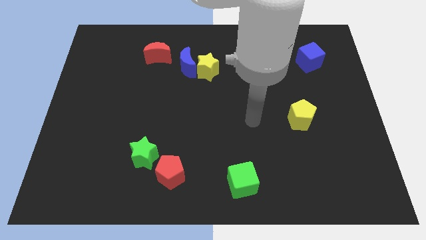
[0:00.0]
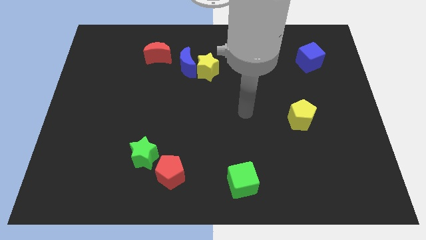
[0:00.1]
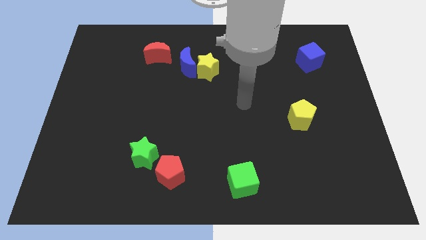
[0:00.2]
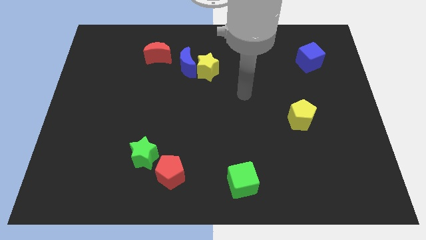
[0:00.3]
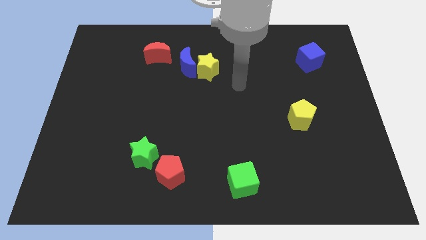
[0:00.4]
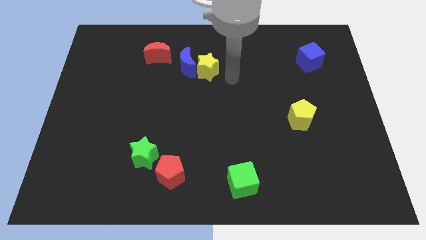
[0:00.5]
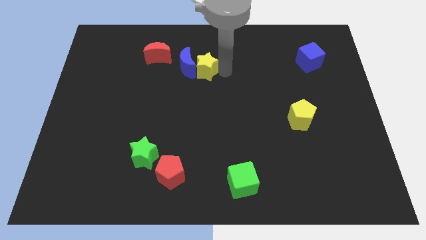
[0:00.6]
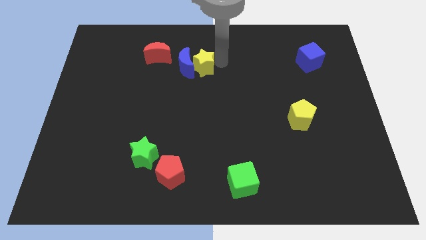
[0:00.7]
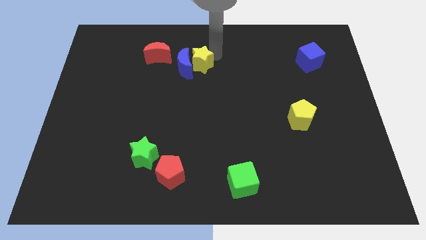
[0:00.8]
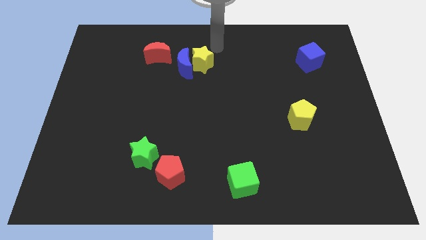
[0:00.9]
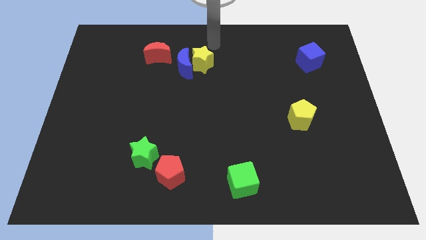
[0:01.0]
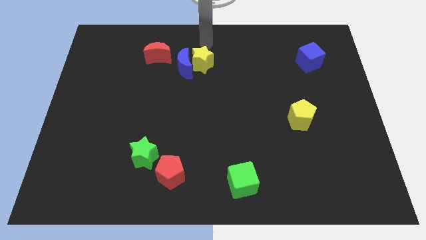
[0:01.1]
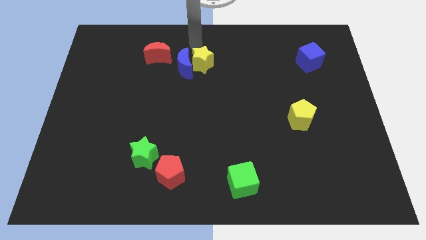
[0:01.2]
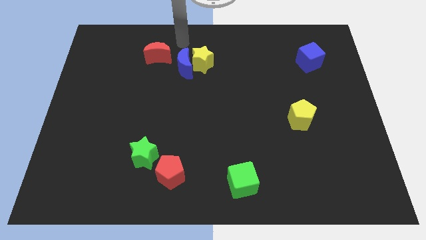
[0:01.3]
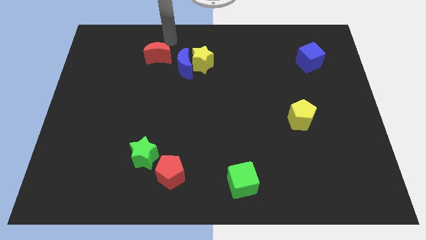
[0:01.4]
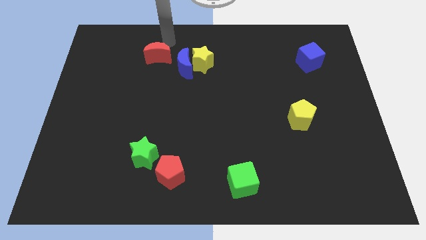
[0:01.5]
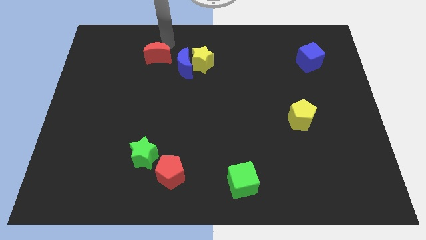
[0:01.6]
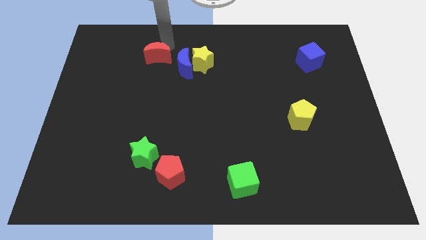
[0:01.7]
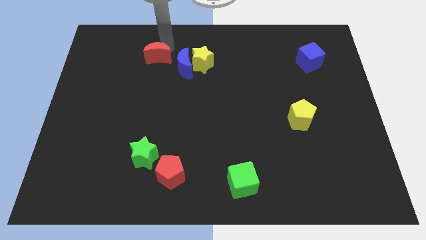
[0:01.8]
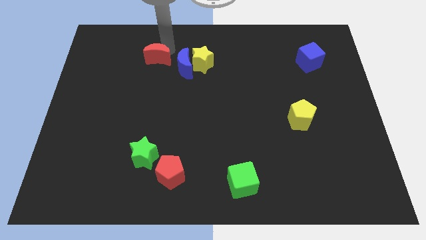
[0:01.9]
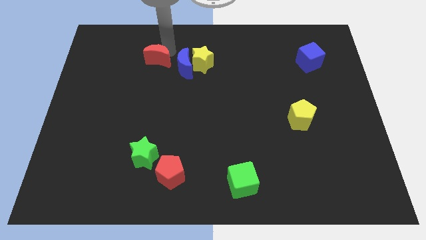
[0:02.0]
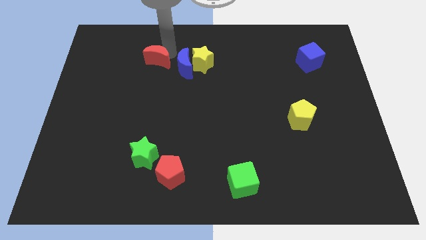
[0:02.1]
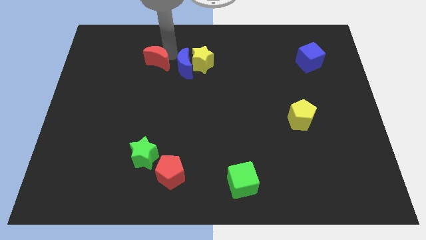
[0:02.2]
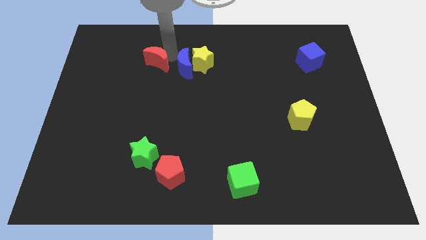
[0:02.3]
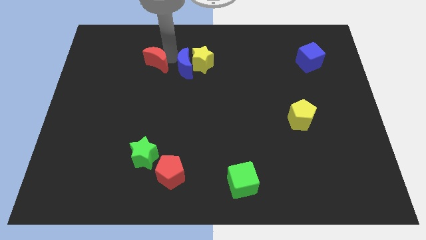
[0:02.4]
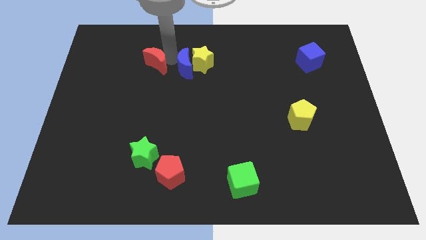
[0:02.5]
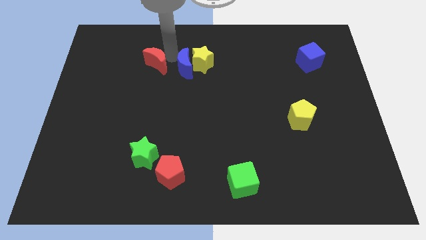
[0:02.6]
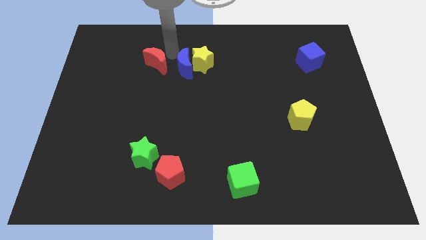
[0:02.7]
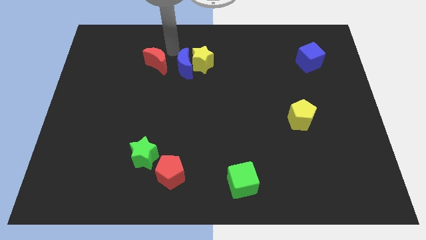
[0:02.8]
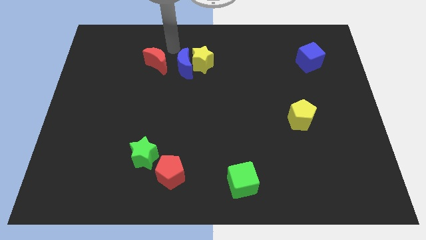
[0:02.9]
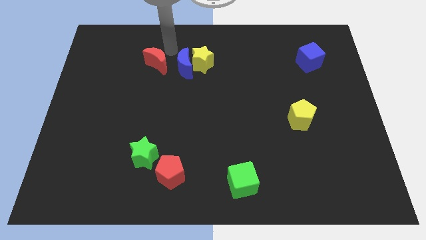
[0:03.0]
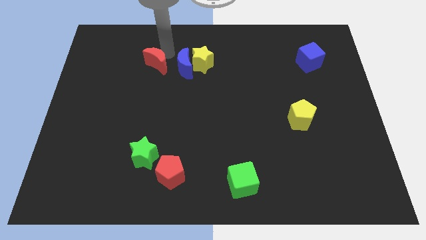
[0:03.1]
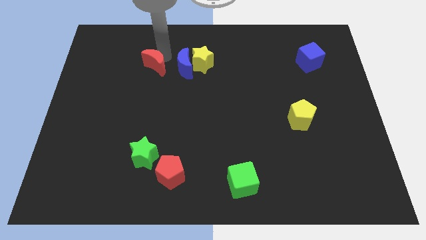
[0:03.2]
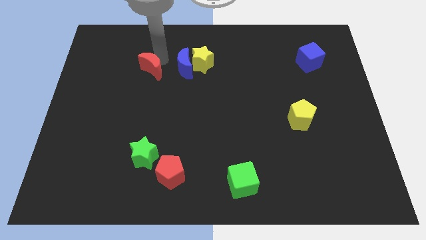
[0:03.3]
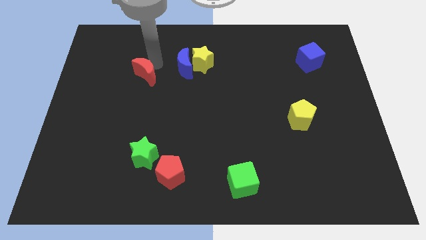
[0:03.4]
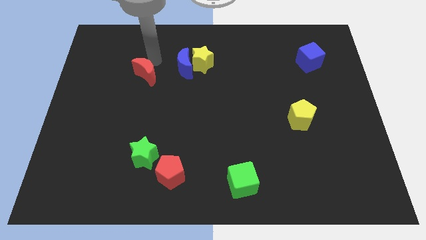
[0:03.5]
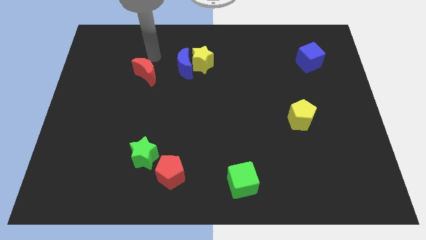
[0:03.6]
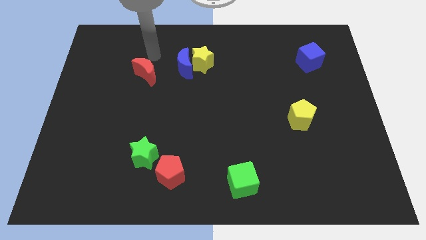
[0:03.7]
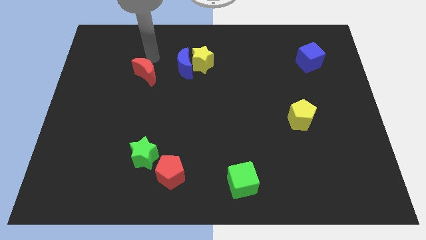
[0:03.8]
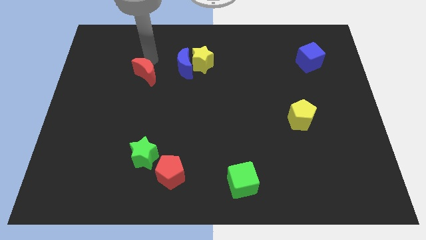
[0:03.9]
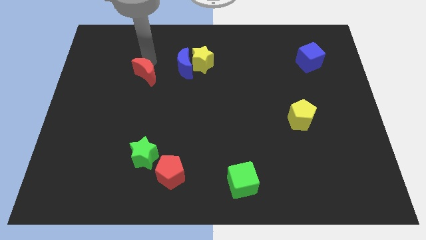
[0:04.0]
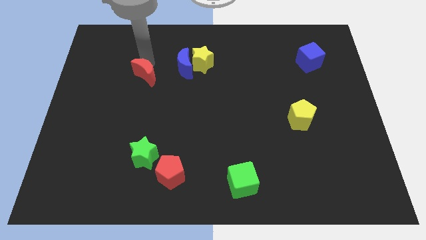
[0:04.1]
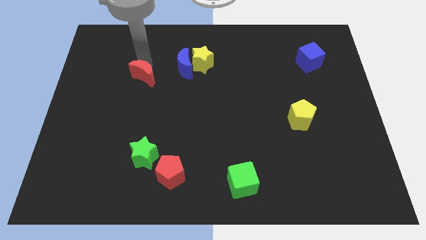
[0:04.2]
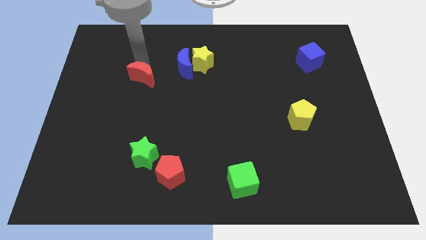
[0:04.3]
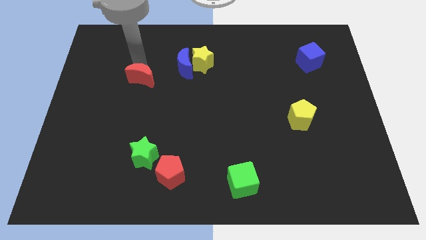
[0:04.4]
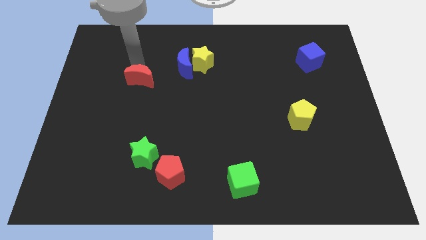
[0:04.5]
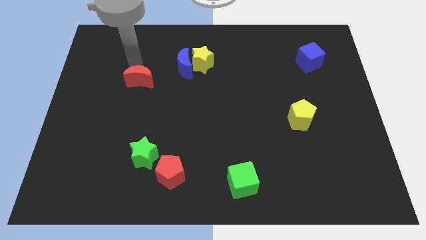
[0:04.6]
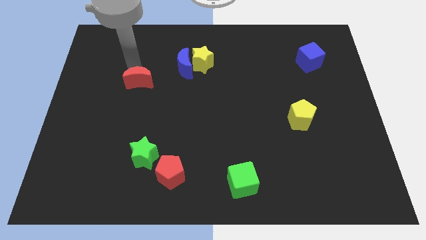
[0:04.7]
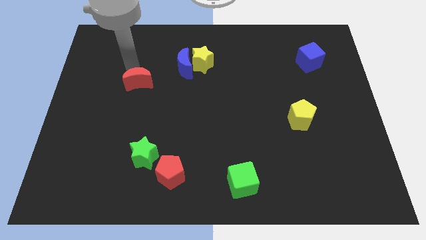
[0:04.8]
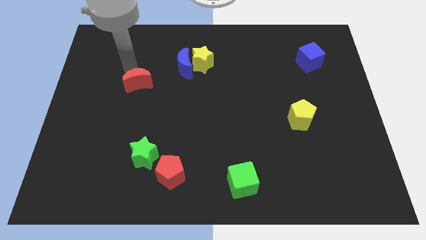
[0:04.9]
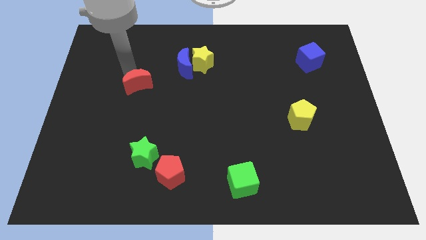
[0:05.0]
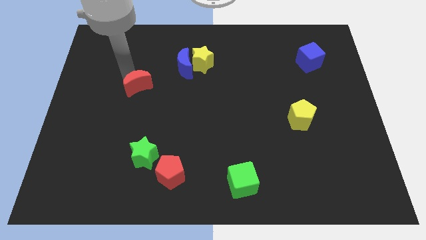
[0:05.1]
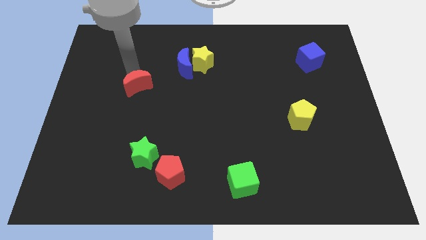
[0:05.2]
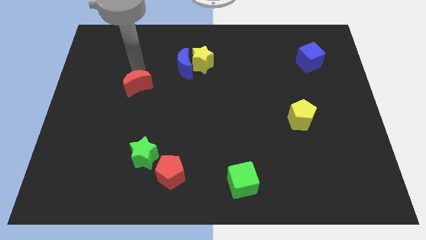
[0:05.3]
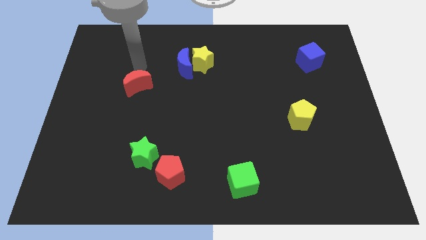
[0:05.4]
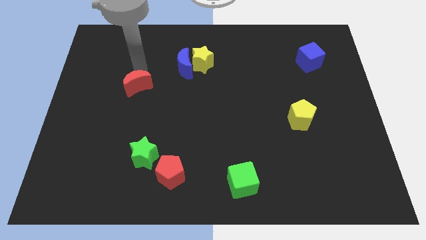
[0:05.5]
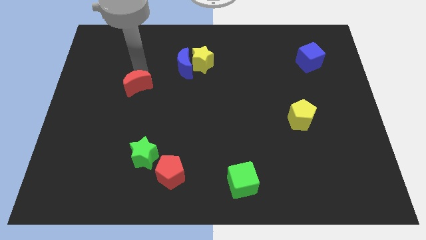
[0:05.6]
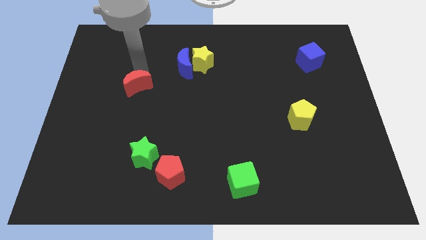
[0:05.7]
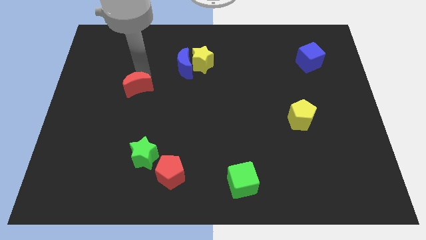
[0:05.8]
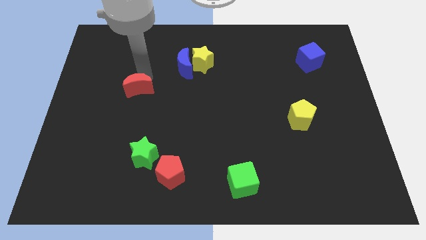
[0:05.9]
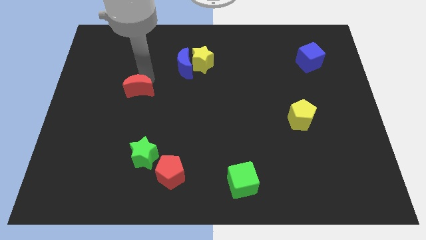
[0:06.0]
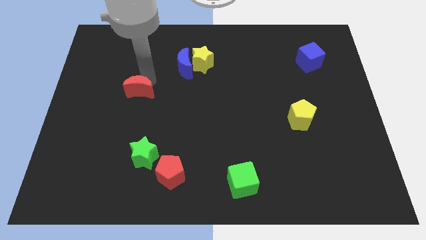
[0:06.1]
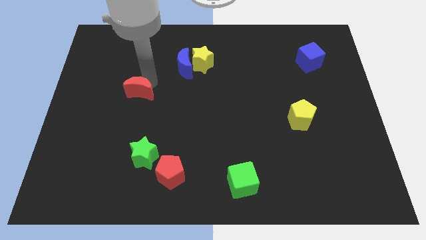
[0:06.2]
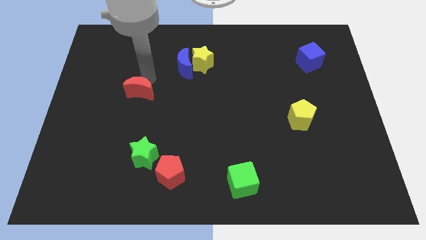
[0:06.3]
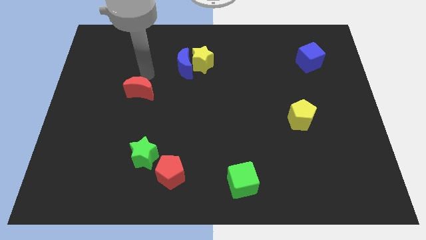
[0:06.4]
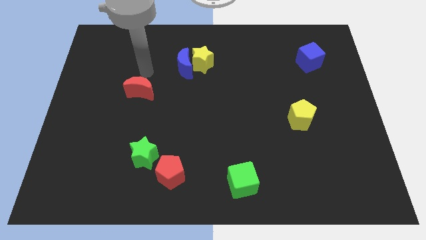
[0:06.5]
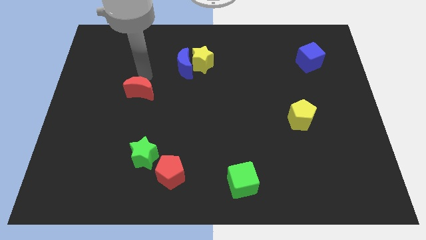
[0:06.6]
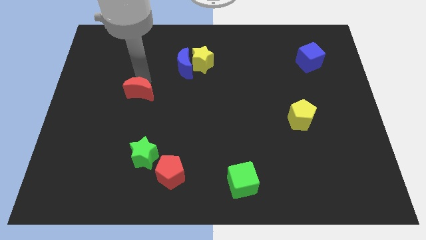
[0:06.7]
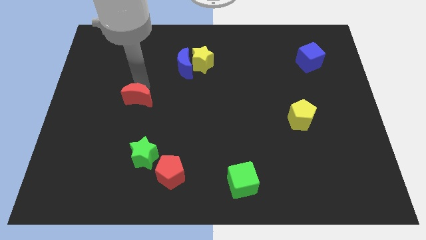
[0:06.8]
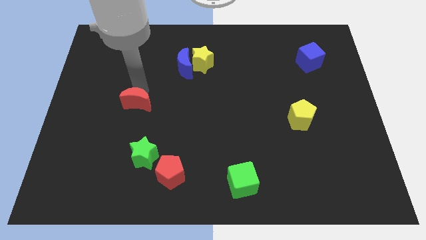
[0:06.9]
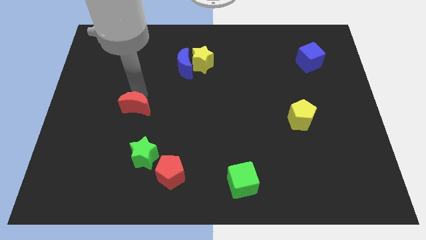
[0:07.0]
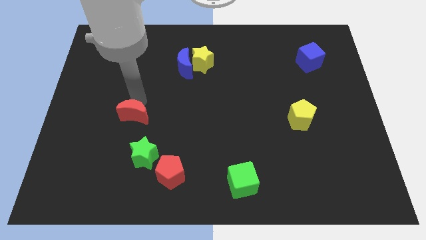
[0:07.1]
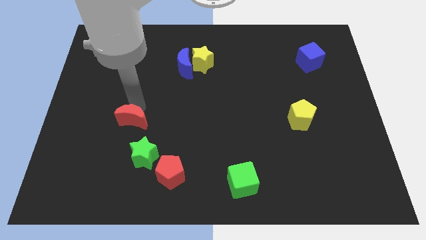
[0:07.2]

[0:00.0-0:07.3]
put the red moon diagonally up and to the left of the green star
